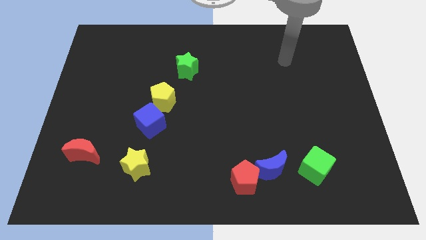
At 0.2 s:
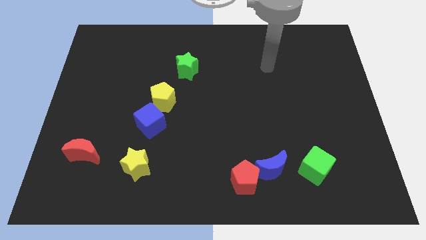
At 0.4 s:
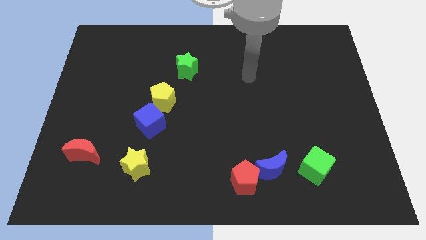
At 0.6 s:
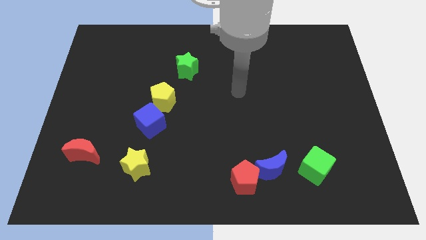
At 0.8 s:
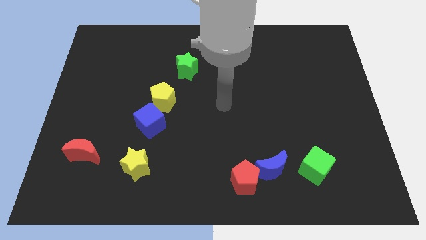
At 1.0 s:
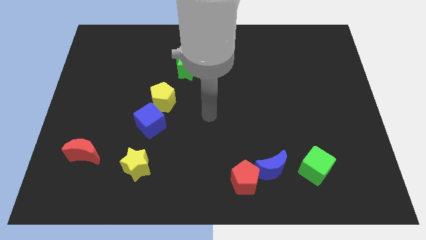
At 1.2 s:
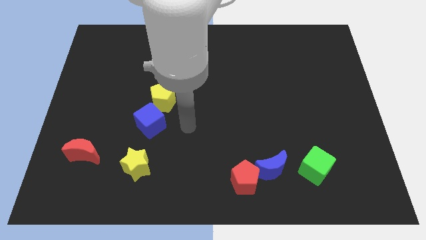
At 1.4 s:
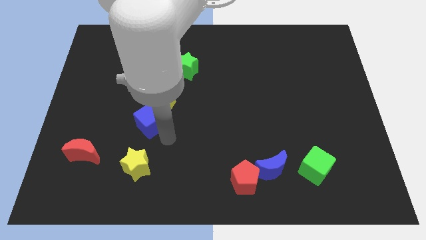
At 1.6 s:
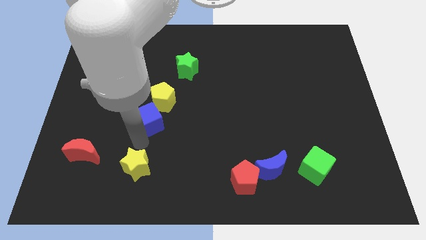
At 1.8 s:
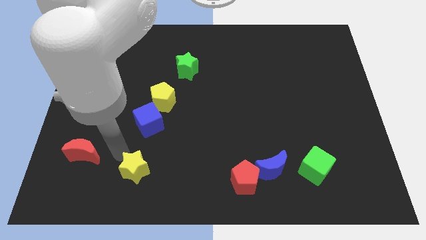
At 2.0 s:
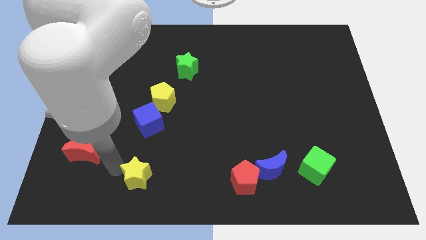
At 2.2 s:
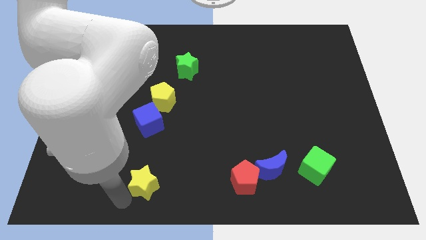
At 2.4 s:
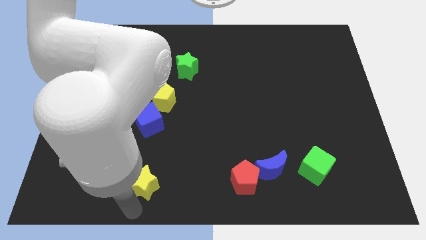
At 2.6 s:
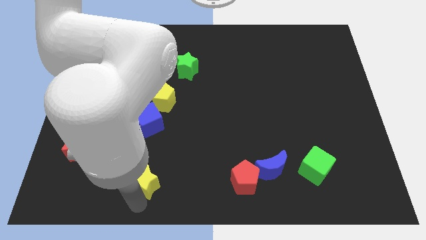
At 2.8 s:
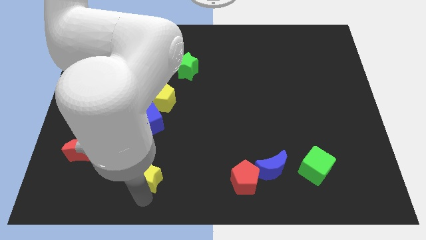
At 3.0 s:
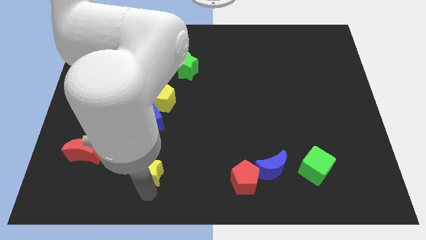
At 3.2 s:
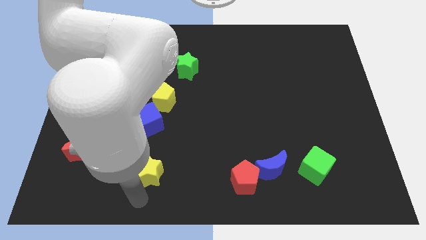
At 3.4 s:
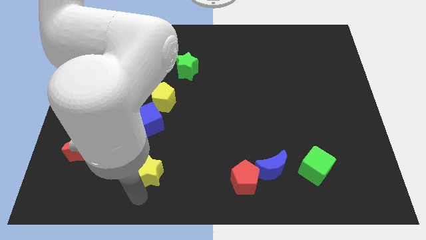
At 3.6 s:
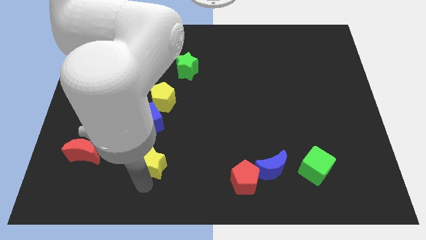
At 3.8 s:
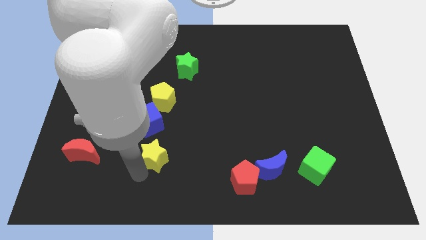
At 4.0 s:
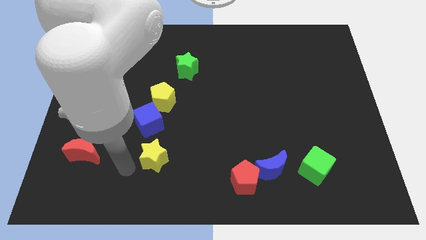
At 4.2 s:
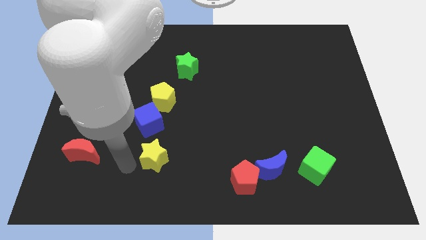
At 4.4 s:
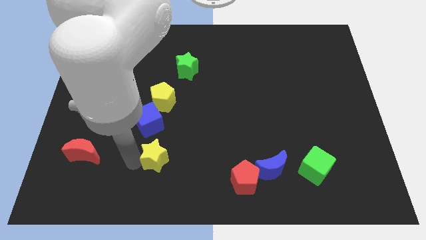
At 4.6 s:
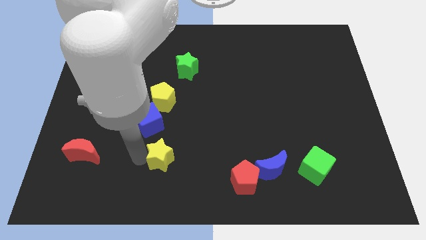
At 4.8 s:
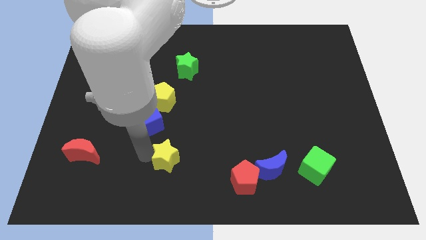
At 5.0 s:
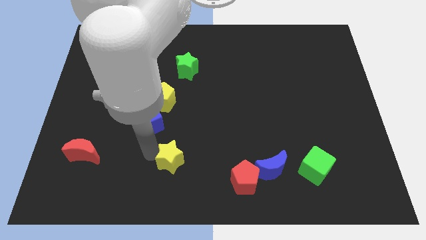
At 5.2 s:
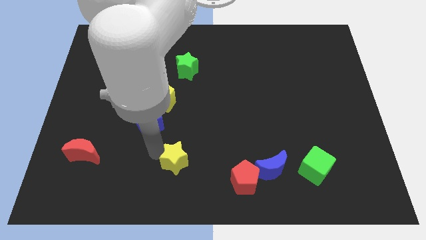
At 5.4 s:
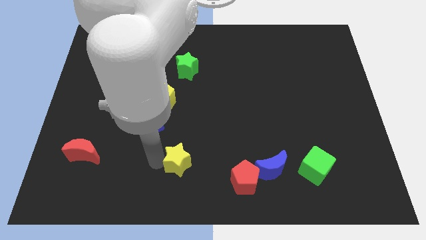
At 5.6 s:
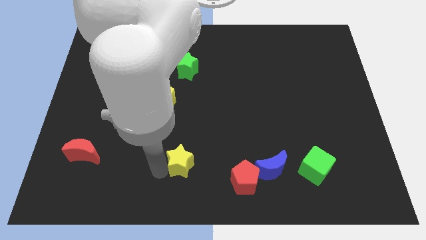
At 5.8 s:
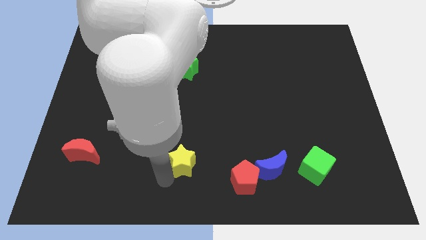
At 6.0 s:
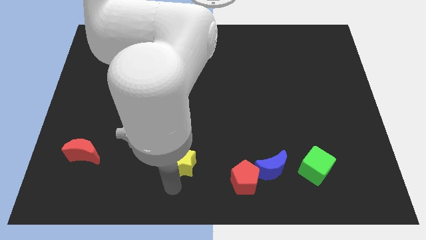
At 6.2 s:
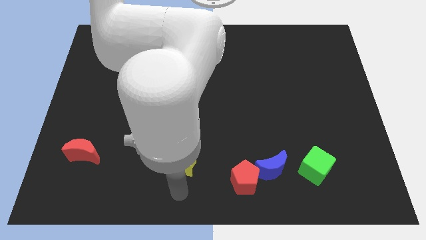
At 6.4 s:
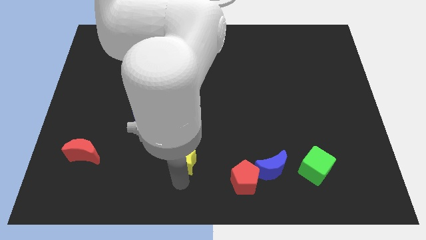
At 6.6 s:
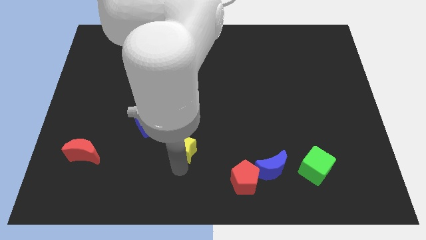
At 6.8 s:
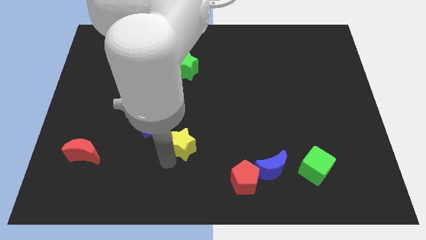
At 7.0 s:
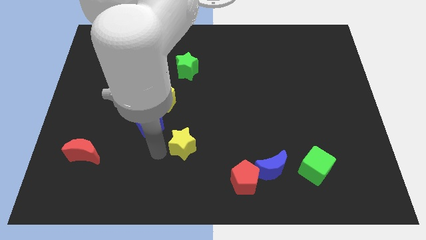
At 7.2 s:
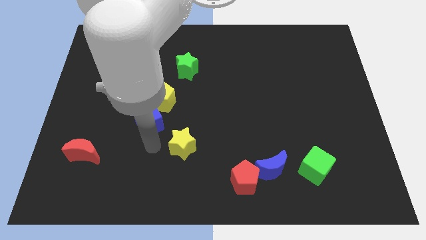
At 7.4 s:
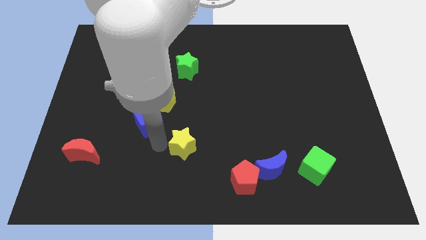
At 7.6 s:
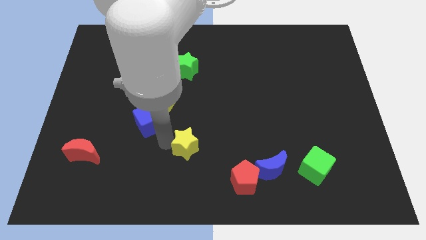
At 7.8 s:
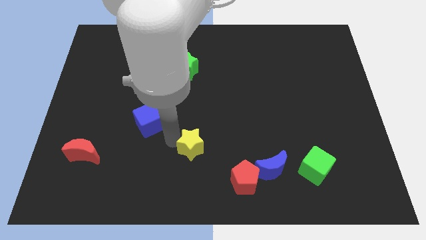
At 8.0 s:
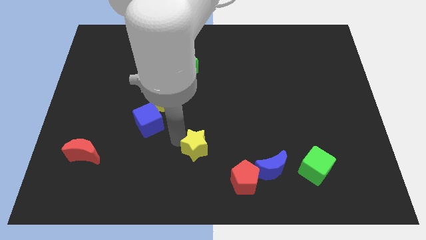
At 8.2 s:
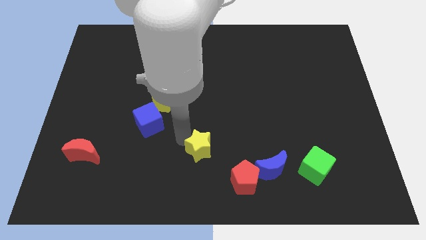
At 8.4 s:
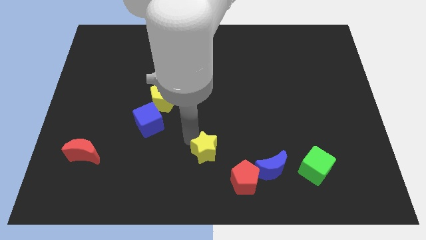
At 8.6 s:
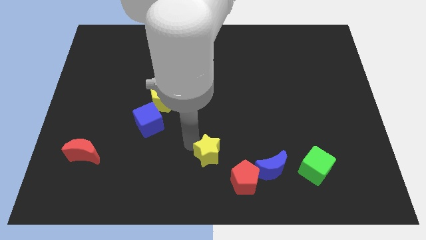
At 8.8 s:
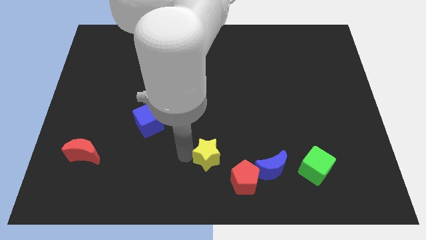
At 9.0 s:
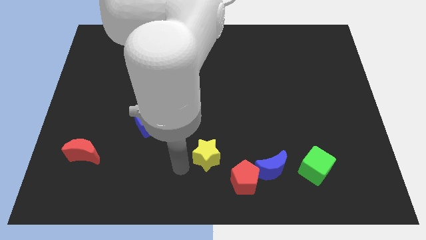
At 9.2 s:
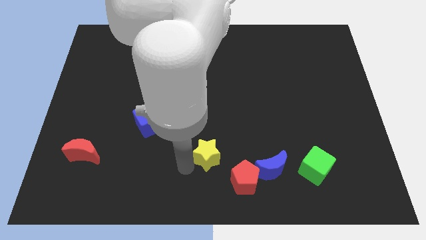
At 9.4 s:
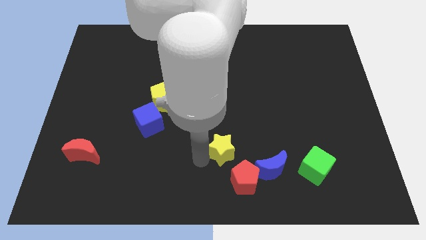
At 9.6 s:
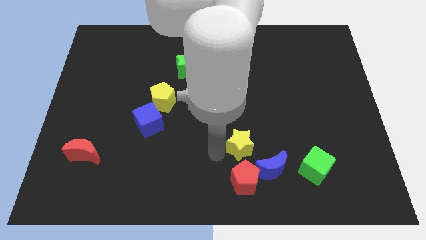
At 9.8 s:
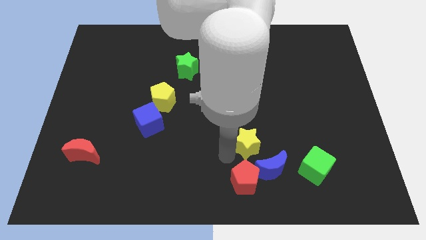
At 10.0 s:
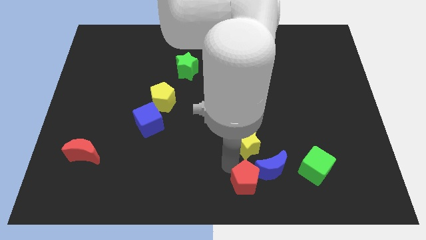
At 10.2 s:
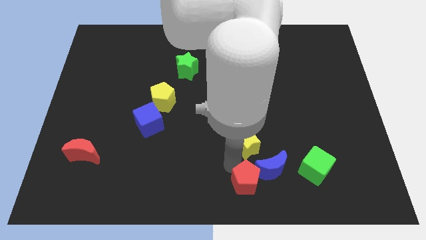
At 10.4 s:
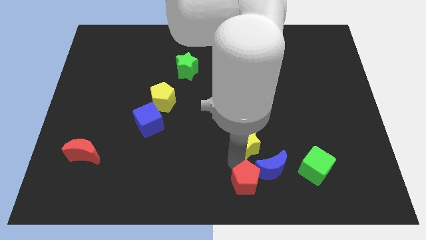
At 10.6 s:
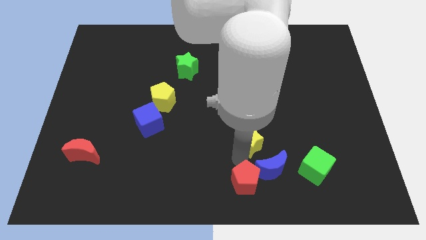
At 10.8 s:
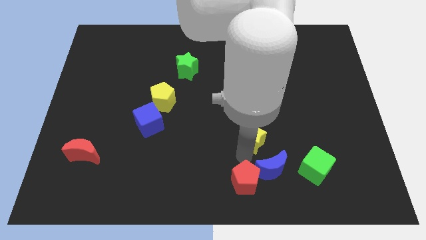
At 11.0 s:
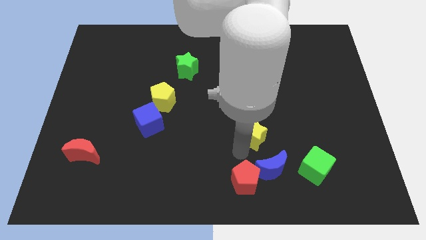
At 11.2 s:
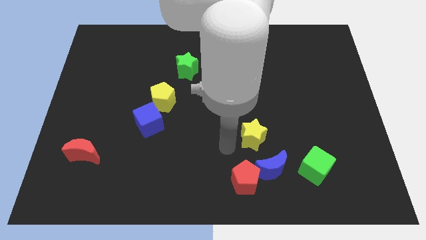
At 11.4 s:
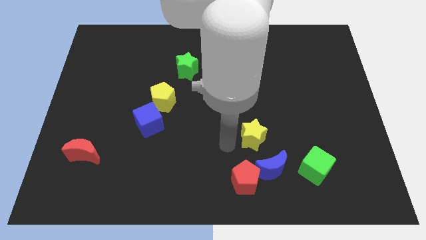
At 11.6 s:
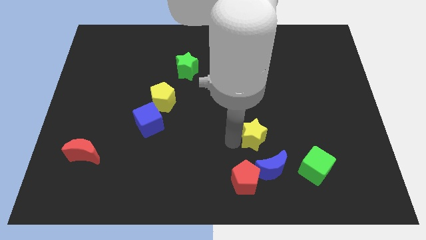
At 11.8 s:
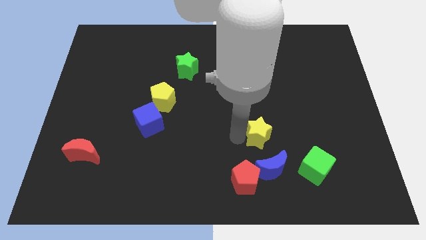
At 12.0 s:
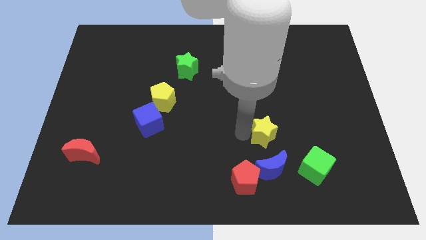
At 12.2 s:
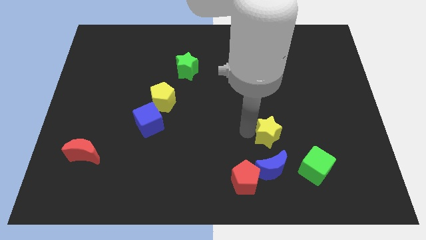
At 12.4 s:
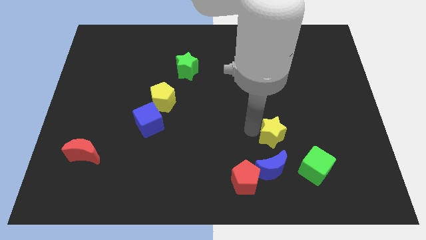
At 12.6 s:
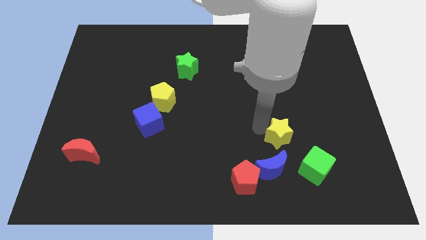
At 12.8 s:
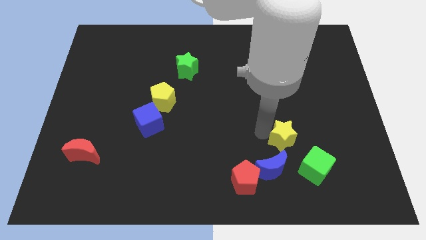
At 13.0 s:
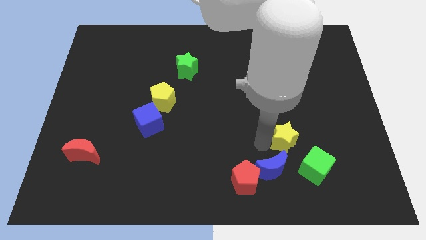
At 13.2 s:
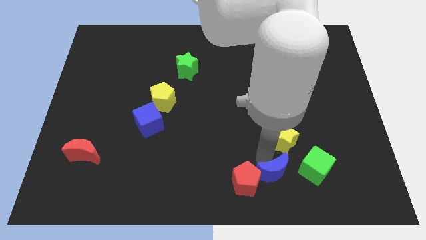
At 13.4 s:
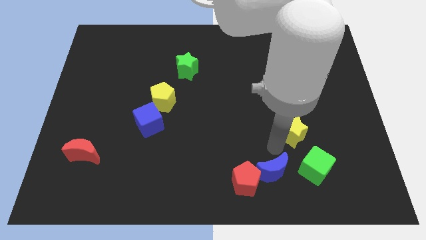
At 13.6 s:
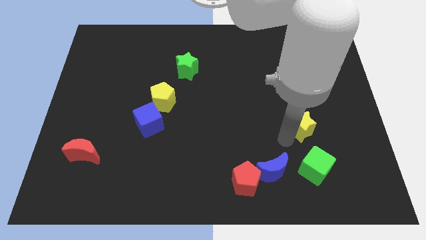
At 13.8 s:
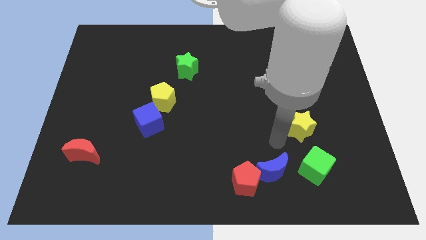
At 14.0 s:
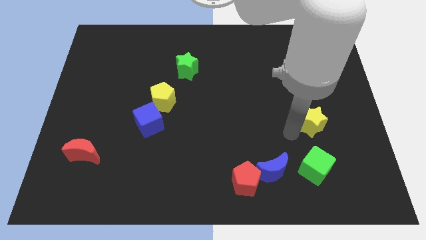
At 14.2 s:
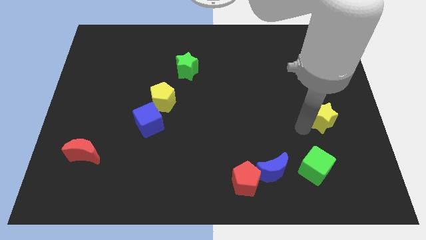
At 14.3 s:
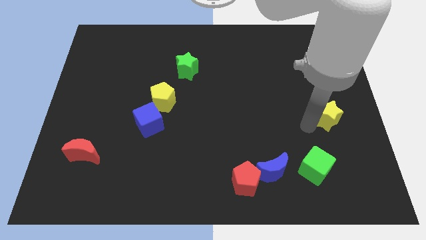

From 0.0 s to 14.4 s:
move the yellow star to the right side
